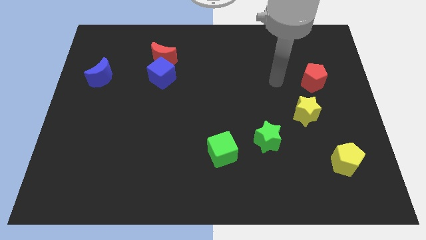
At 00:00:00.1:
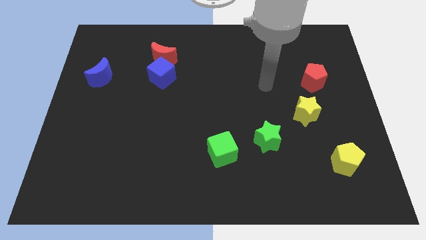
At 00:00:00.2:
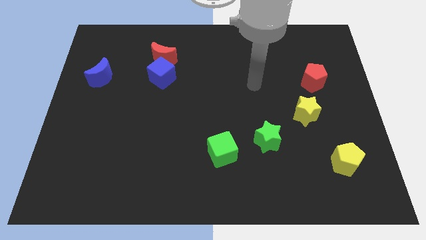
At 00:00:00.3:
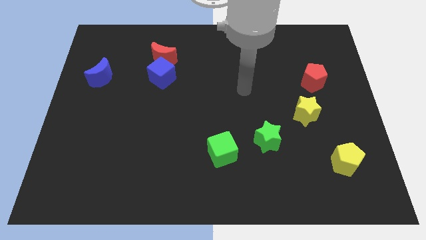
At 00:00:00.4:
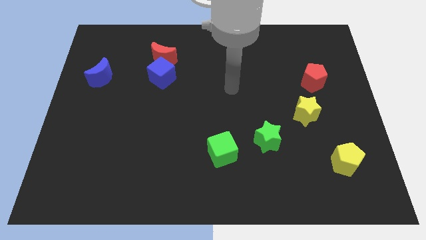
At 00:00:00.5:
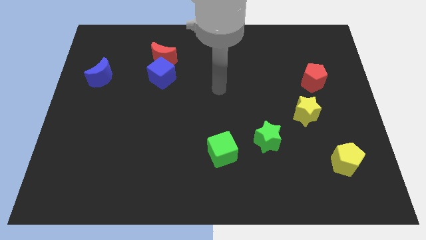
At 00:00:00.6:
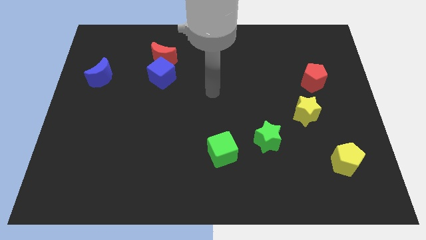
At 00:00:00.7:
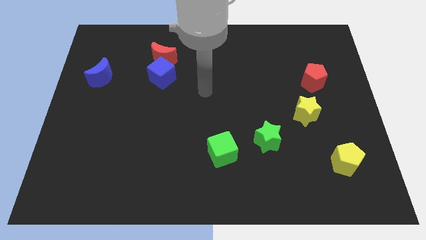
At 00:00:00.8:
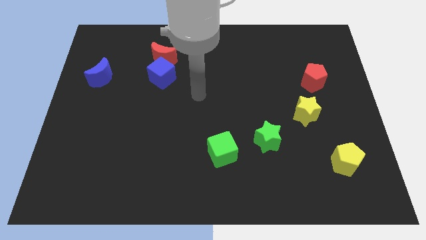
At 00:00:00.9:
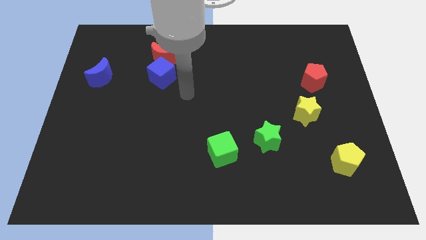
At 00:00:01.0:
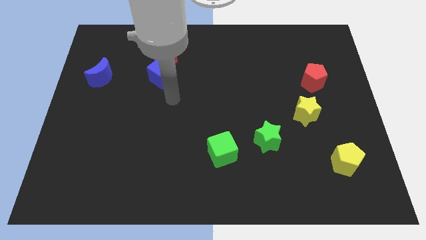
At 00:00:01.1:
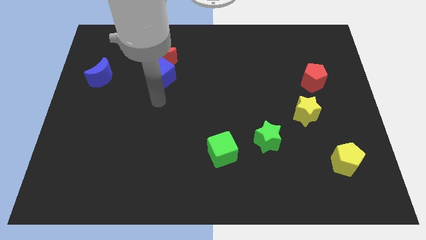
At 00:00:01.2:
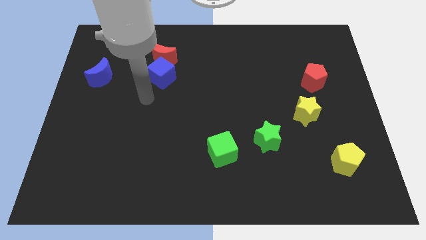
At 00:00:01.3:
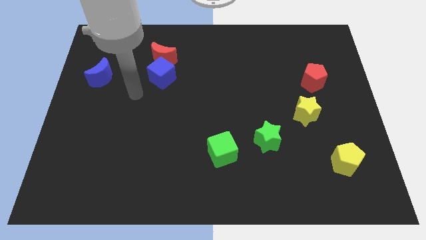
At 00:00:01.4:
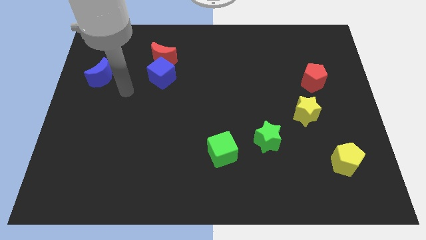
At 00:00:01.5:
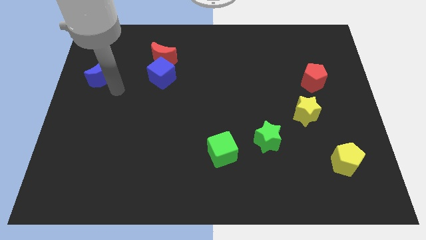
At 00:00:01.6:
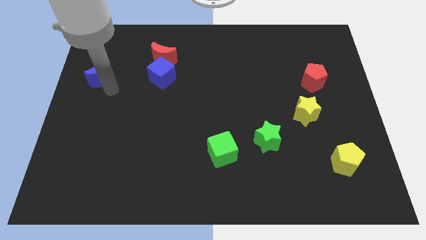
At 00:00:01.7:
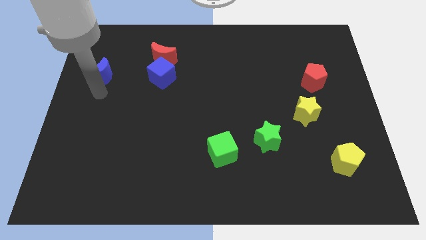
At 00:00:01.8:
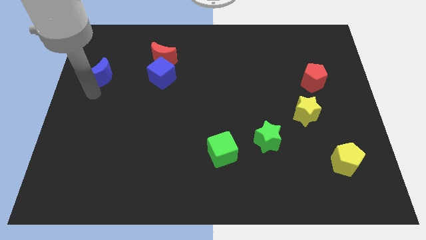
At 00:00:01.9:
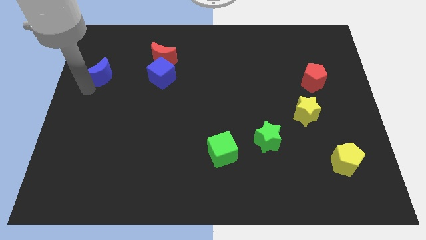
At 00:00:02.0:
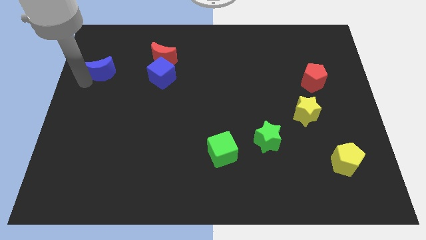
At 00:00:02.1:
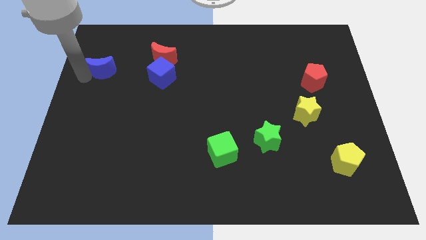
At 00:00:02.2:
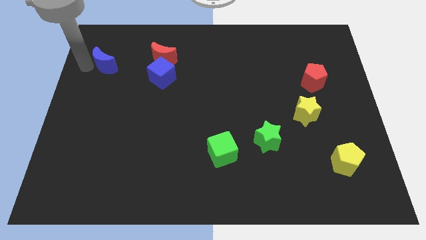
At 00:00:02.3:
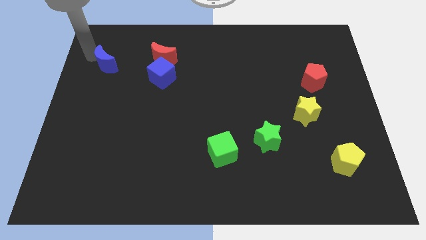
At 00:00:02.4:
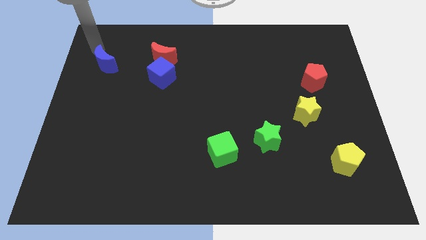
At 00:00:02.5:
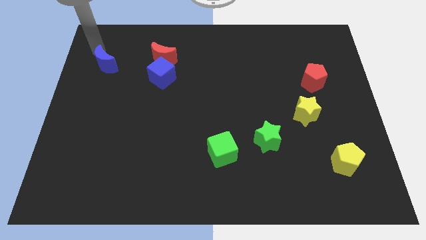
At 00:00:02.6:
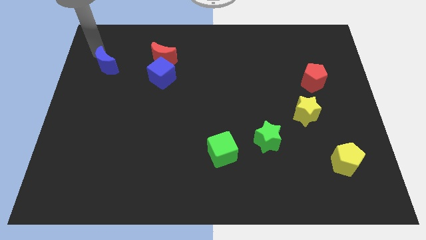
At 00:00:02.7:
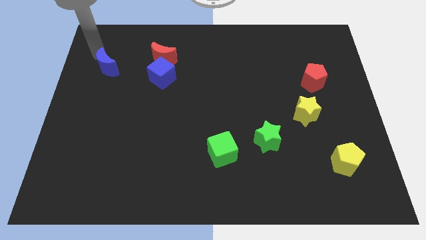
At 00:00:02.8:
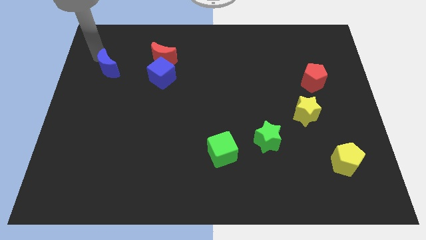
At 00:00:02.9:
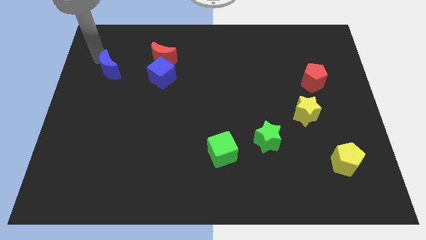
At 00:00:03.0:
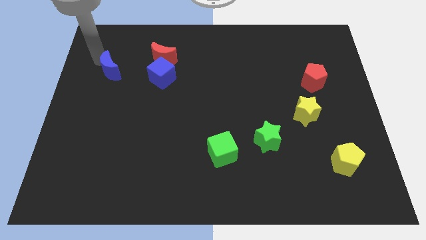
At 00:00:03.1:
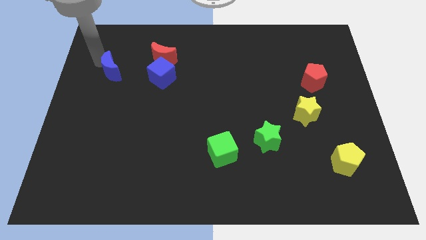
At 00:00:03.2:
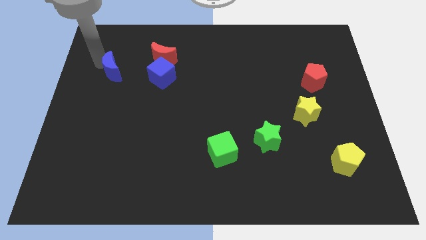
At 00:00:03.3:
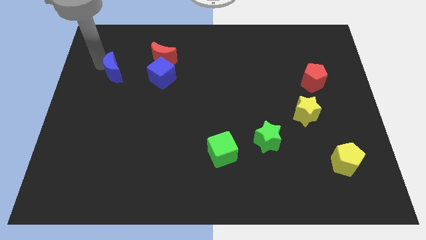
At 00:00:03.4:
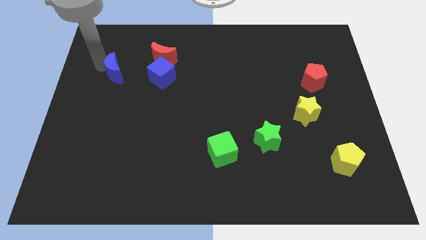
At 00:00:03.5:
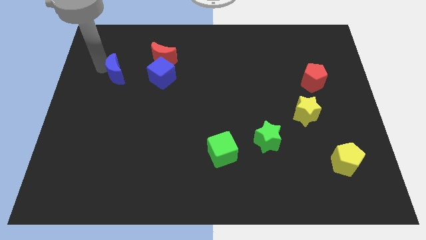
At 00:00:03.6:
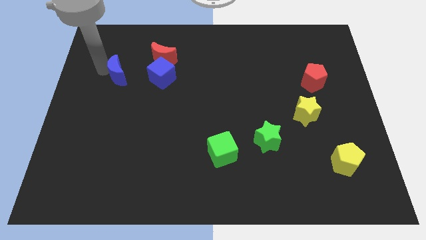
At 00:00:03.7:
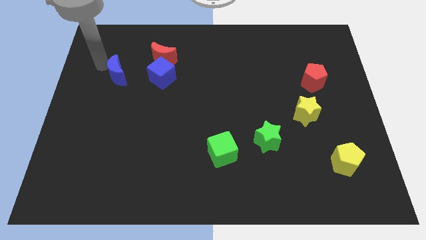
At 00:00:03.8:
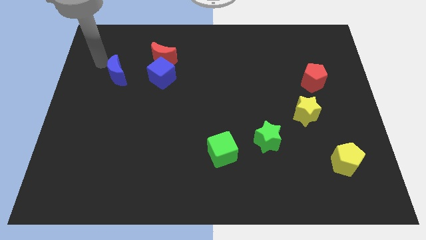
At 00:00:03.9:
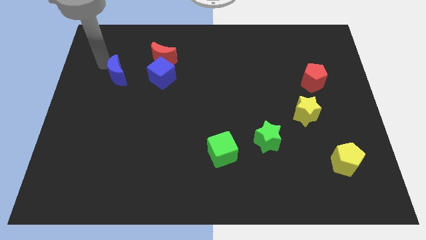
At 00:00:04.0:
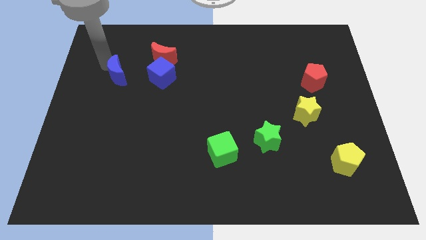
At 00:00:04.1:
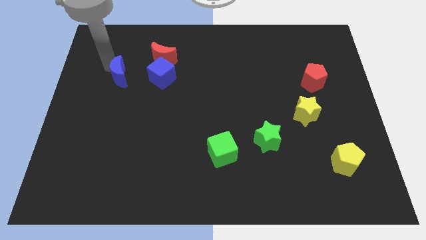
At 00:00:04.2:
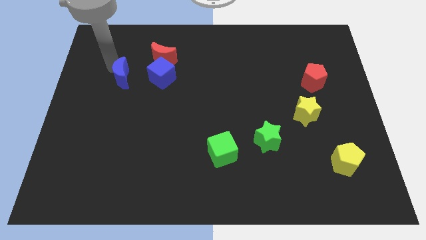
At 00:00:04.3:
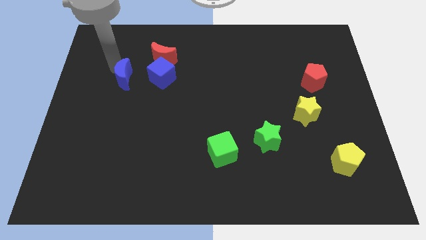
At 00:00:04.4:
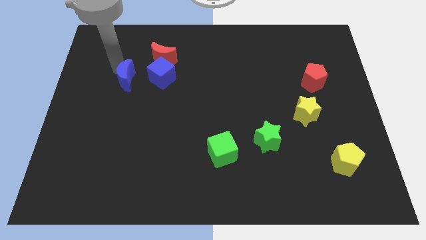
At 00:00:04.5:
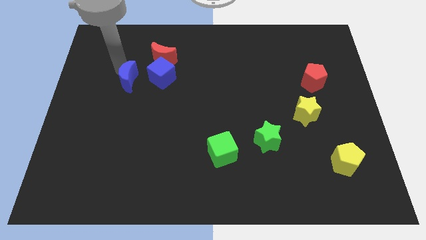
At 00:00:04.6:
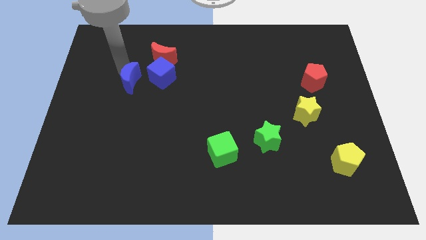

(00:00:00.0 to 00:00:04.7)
move the blue moon diagonally down and to the left of the blue cube

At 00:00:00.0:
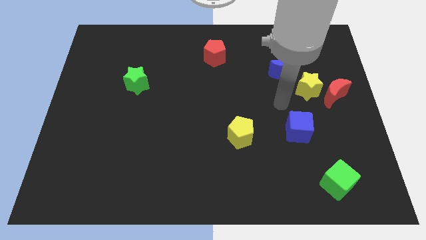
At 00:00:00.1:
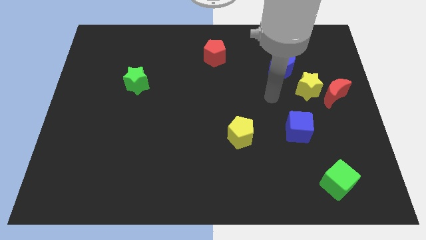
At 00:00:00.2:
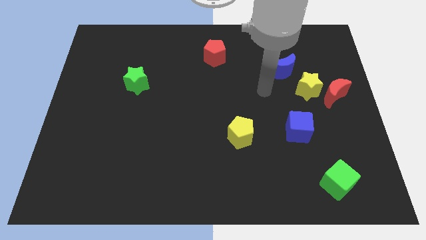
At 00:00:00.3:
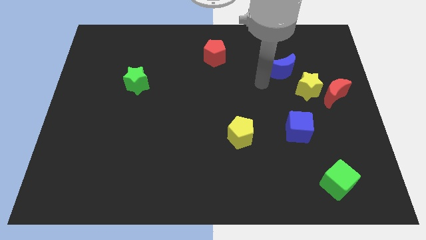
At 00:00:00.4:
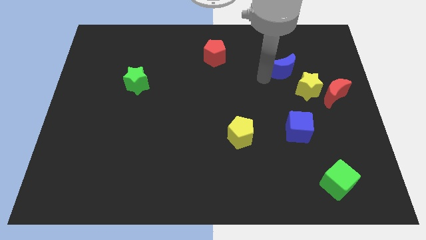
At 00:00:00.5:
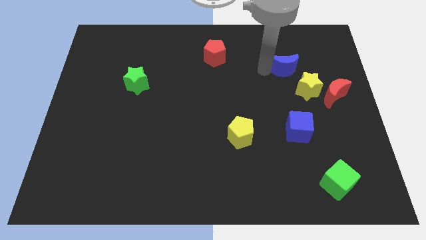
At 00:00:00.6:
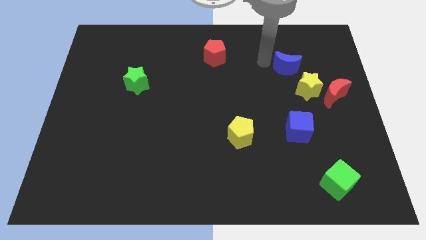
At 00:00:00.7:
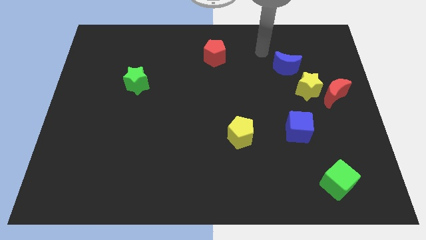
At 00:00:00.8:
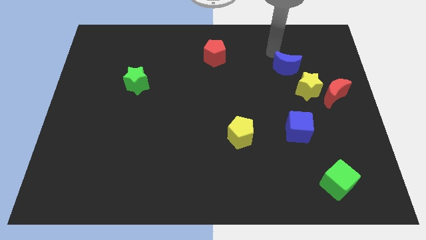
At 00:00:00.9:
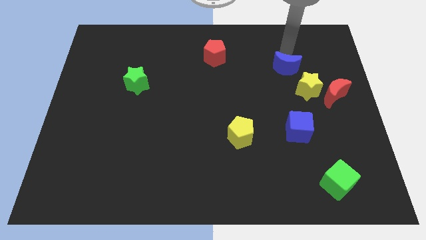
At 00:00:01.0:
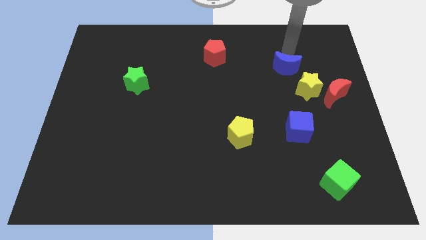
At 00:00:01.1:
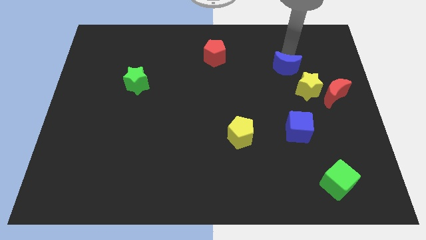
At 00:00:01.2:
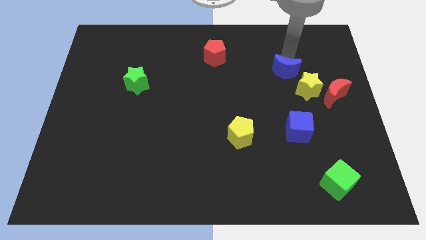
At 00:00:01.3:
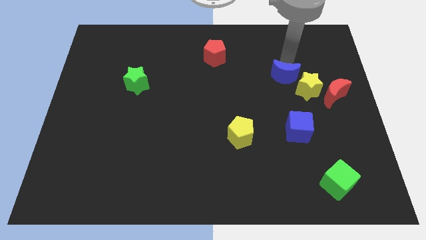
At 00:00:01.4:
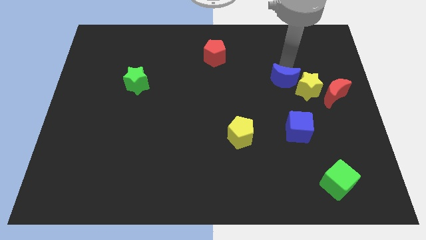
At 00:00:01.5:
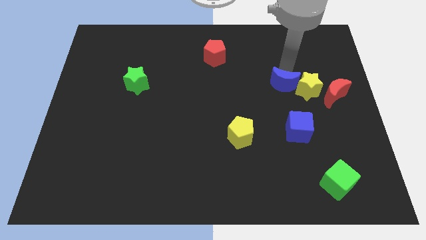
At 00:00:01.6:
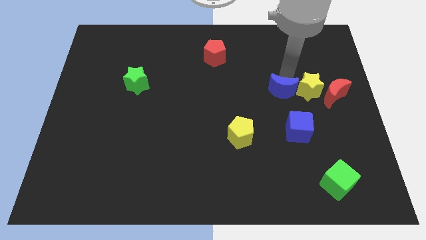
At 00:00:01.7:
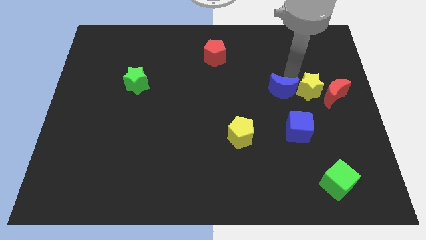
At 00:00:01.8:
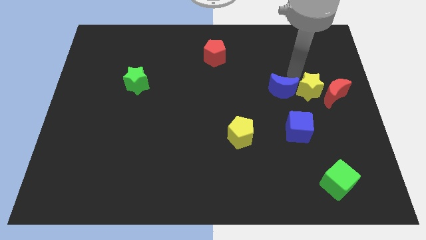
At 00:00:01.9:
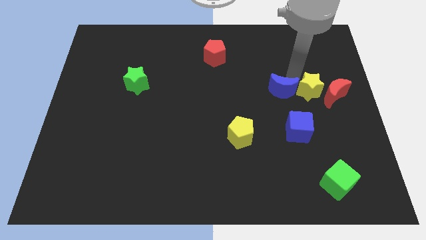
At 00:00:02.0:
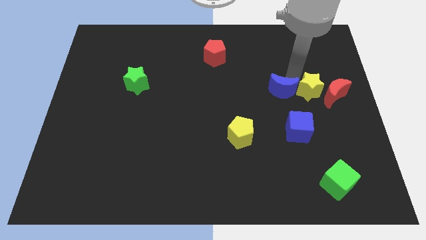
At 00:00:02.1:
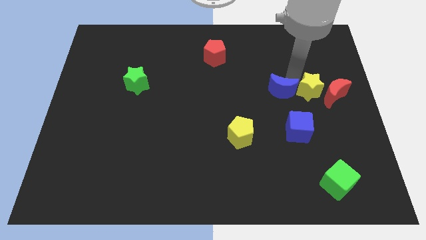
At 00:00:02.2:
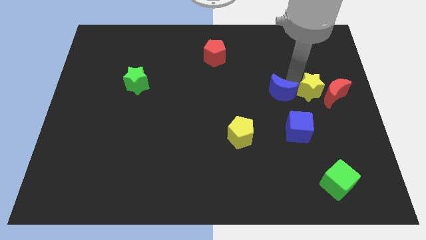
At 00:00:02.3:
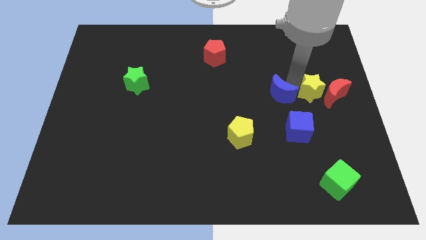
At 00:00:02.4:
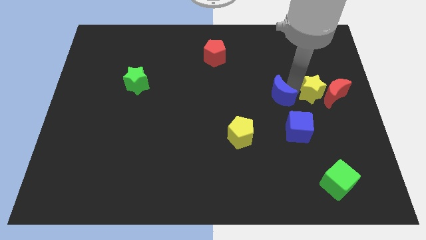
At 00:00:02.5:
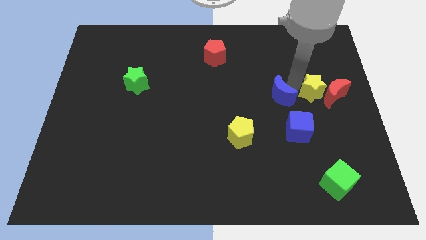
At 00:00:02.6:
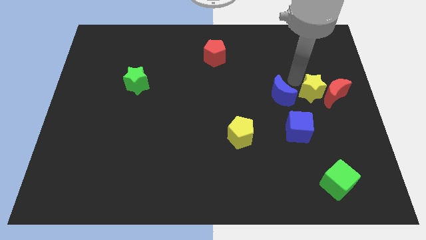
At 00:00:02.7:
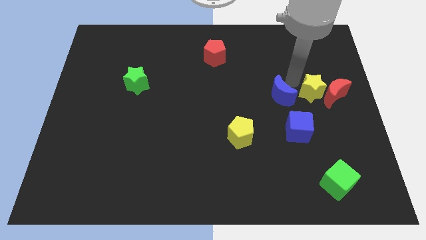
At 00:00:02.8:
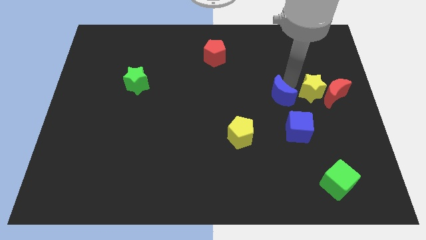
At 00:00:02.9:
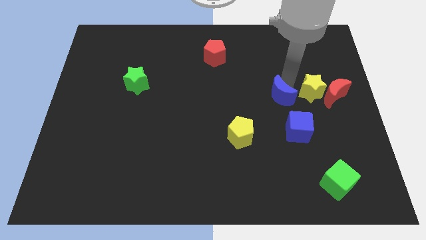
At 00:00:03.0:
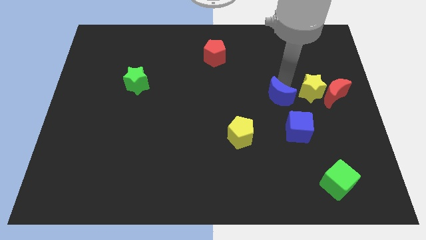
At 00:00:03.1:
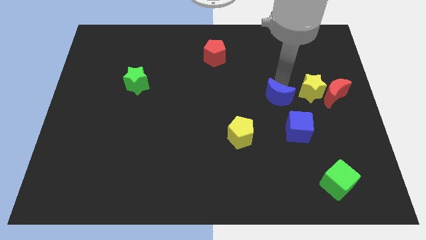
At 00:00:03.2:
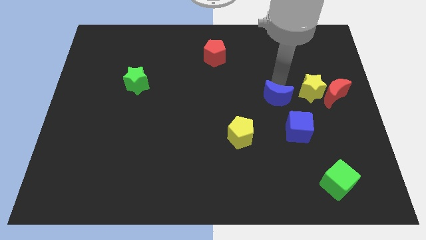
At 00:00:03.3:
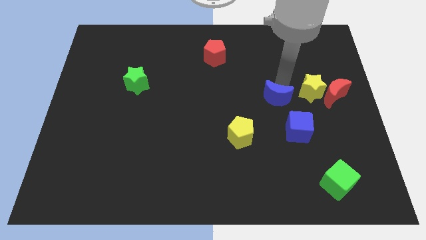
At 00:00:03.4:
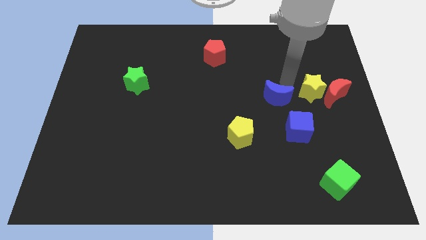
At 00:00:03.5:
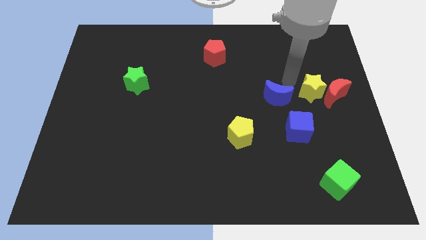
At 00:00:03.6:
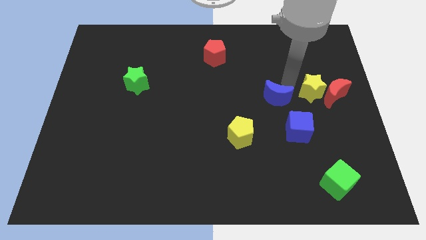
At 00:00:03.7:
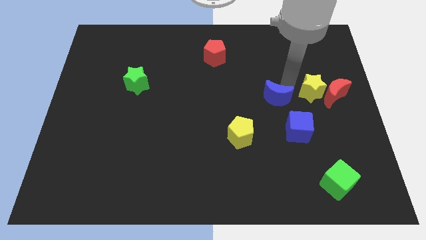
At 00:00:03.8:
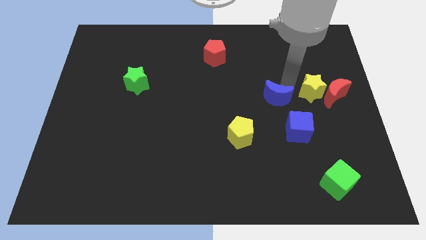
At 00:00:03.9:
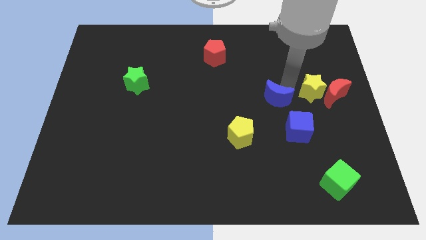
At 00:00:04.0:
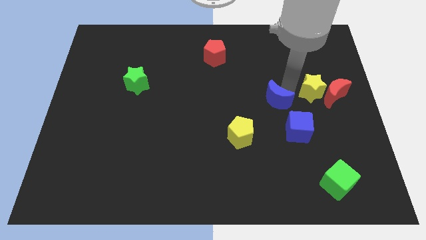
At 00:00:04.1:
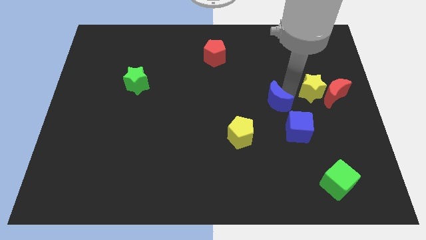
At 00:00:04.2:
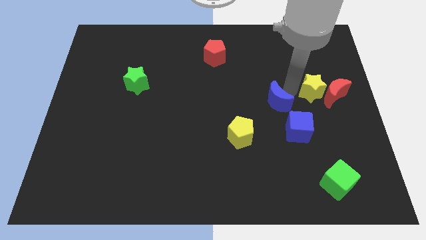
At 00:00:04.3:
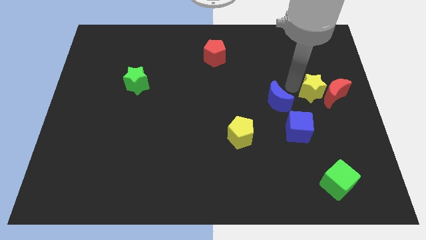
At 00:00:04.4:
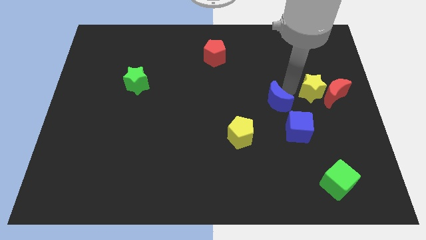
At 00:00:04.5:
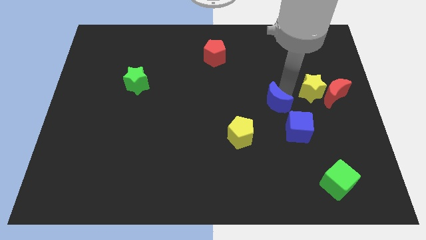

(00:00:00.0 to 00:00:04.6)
push the blue moon to the top right side of the yellow pentagon
